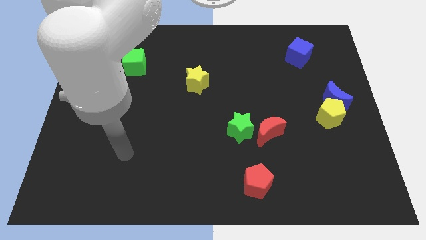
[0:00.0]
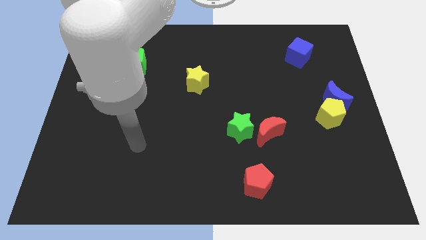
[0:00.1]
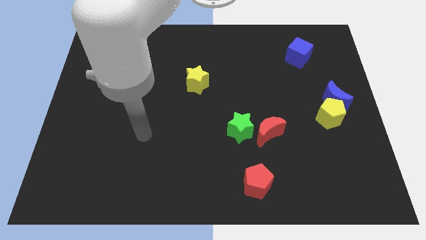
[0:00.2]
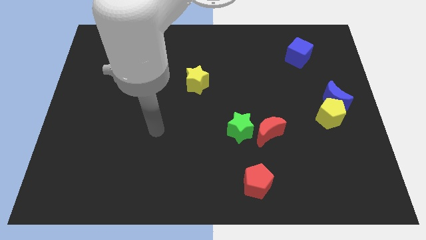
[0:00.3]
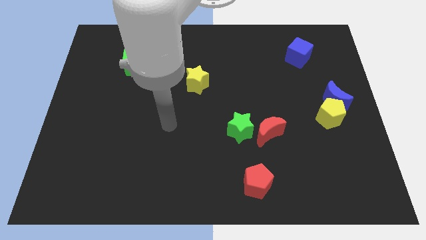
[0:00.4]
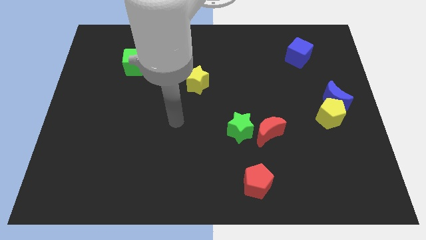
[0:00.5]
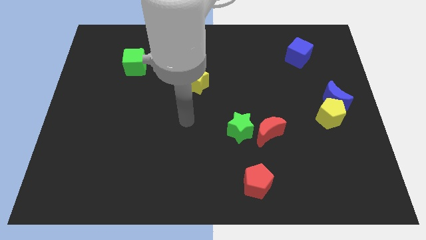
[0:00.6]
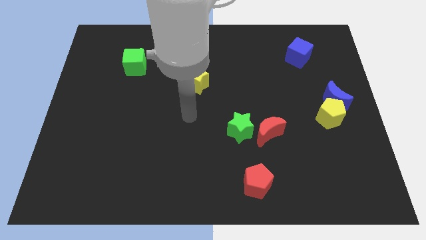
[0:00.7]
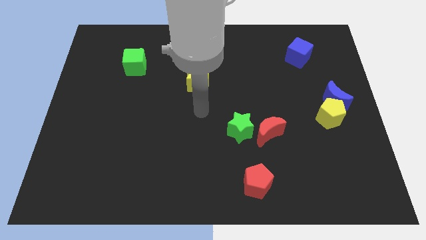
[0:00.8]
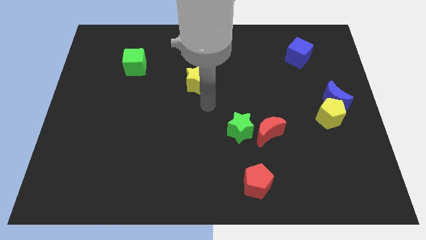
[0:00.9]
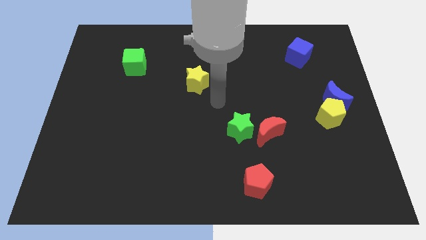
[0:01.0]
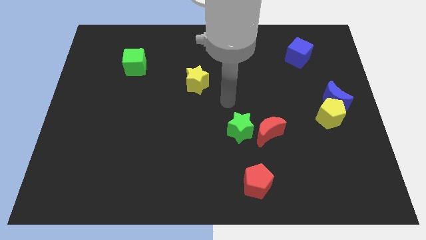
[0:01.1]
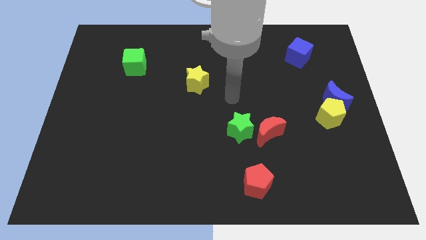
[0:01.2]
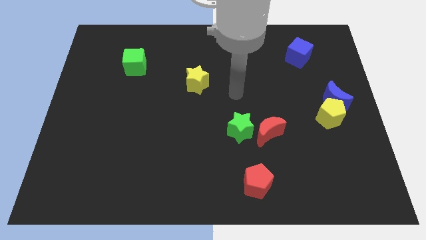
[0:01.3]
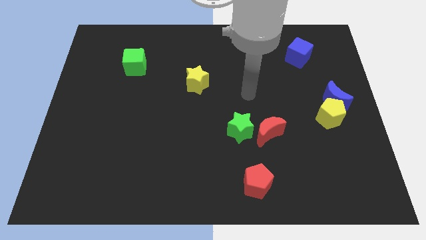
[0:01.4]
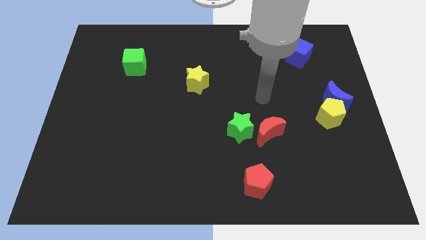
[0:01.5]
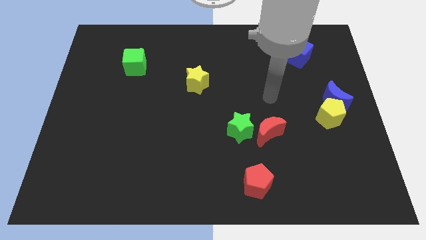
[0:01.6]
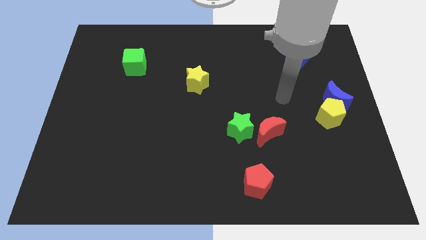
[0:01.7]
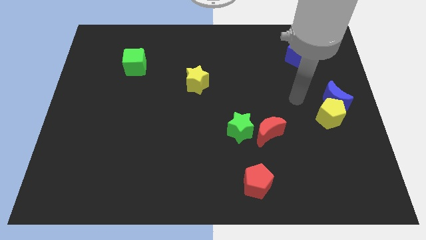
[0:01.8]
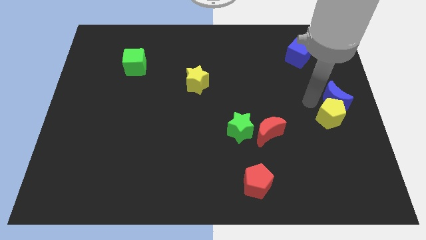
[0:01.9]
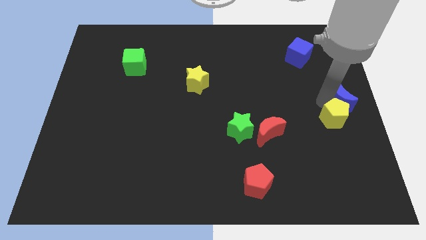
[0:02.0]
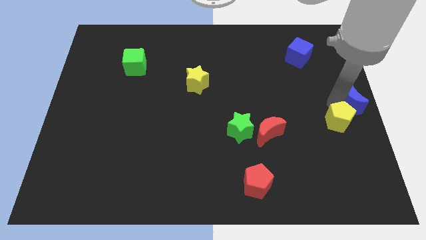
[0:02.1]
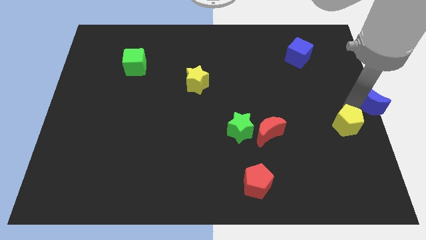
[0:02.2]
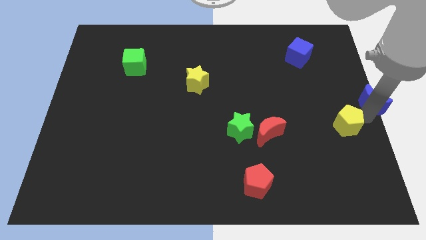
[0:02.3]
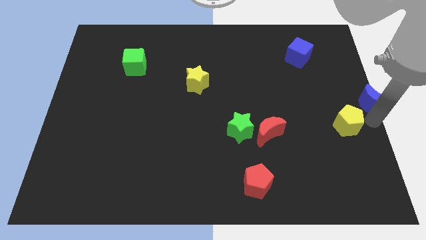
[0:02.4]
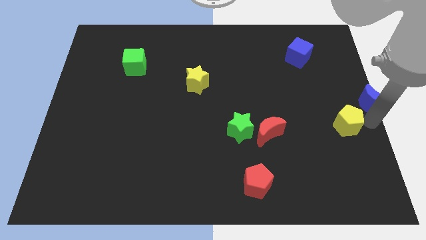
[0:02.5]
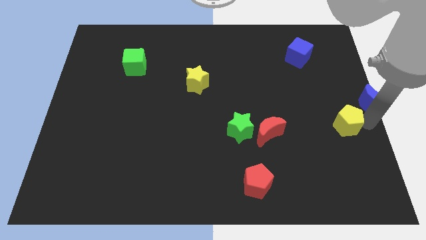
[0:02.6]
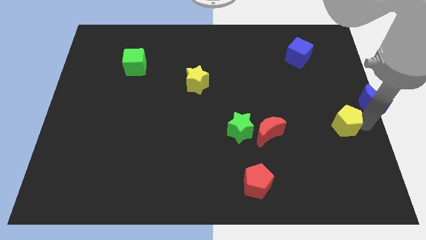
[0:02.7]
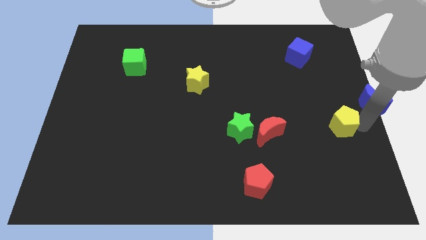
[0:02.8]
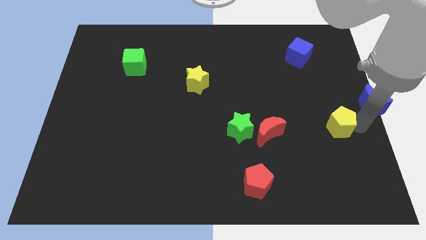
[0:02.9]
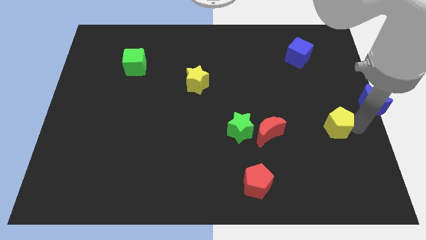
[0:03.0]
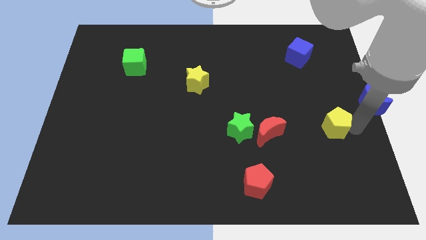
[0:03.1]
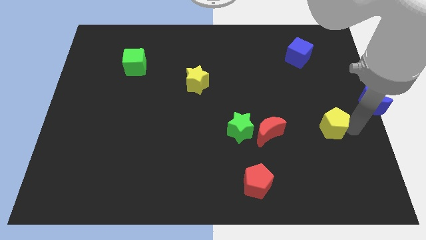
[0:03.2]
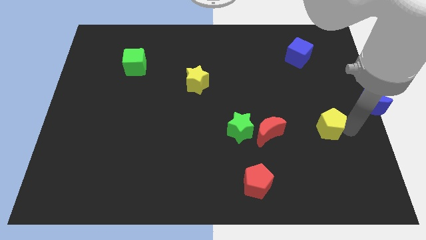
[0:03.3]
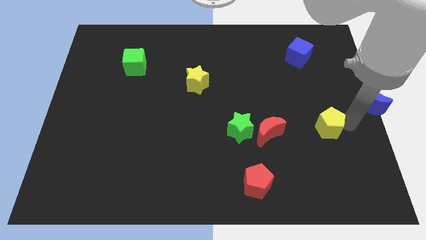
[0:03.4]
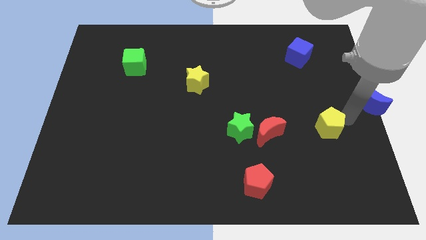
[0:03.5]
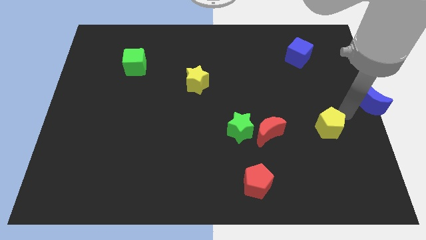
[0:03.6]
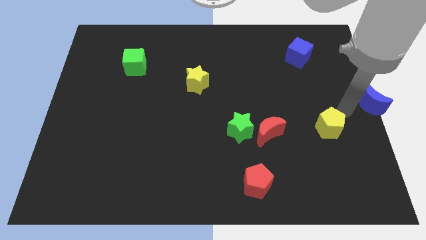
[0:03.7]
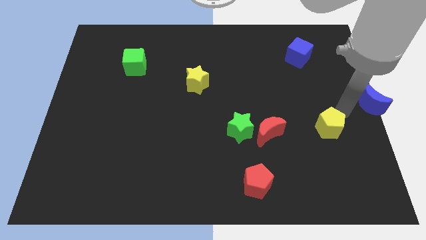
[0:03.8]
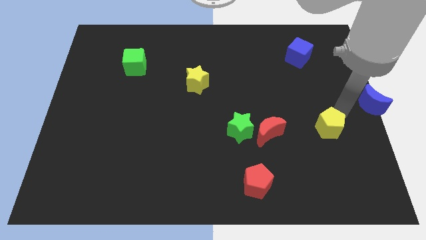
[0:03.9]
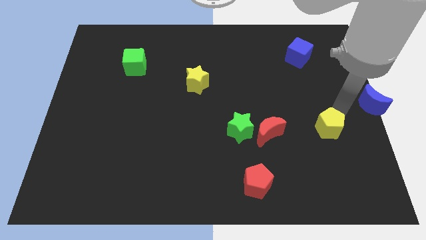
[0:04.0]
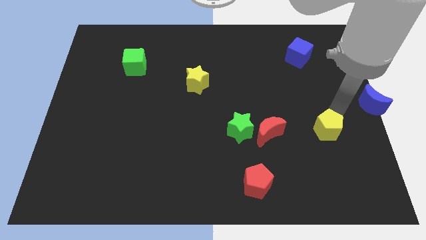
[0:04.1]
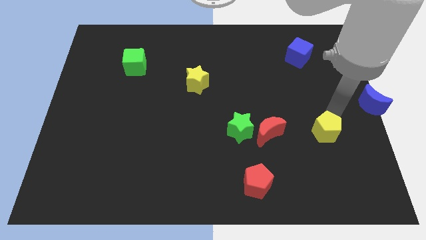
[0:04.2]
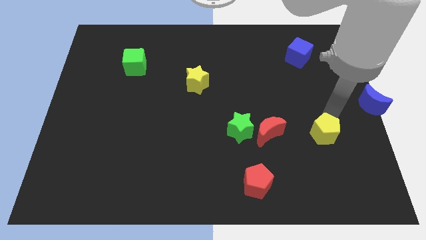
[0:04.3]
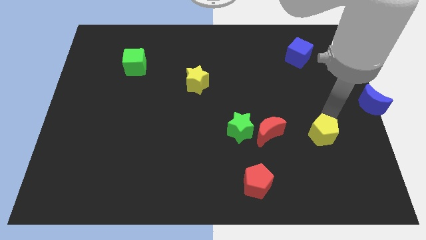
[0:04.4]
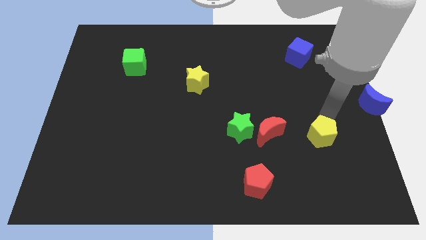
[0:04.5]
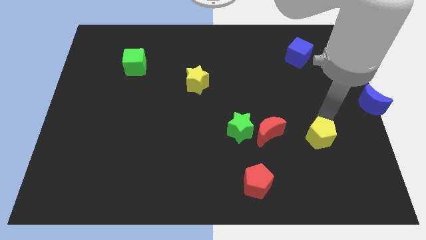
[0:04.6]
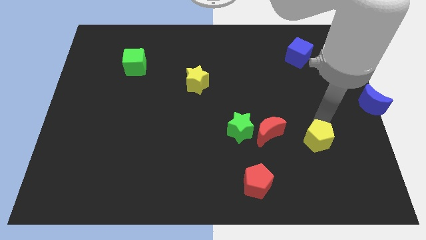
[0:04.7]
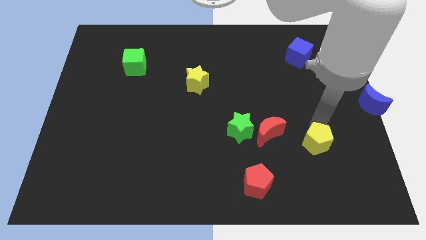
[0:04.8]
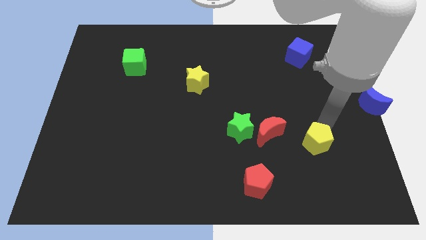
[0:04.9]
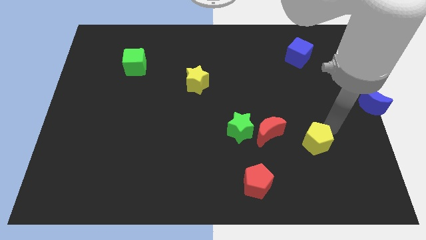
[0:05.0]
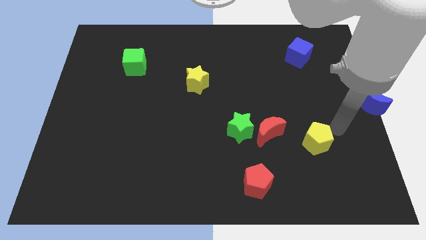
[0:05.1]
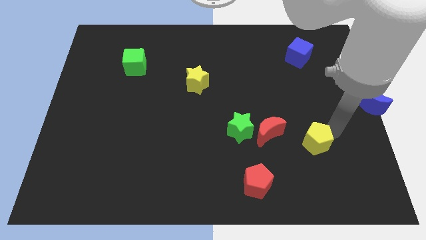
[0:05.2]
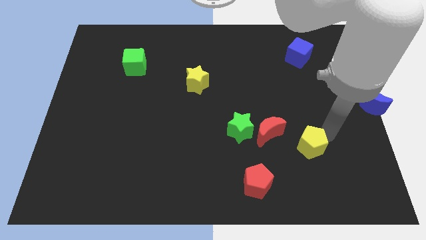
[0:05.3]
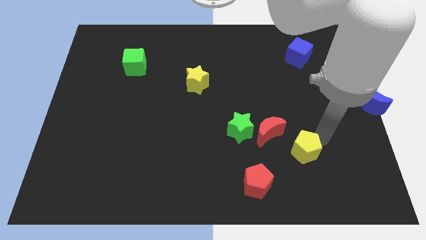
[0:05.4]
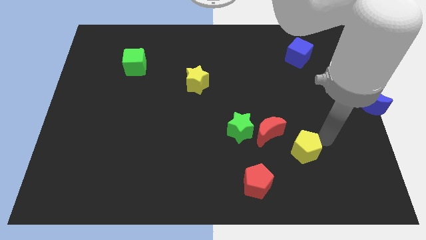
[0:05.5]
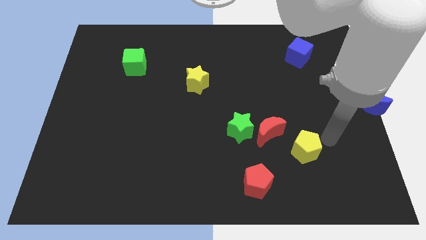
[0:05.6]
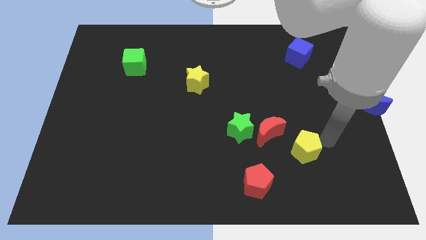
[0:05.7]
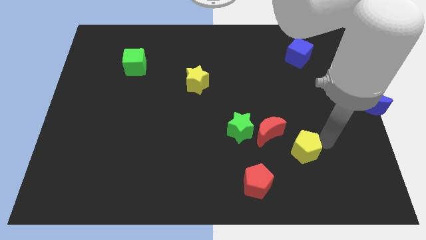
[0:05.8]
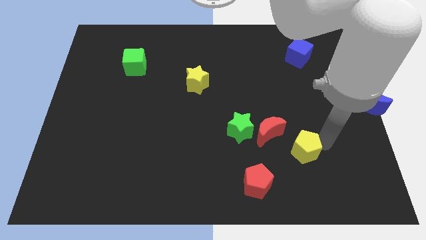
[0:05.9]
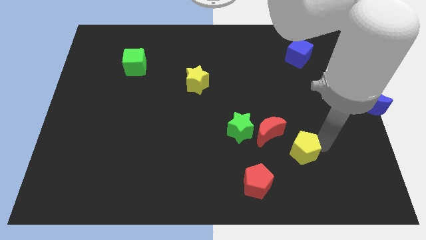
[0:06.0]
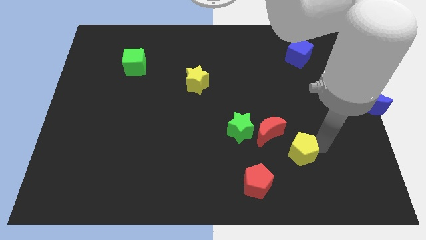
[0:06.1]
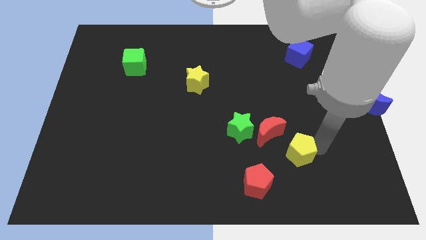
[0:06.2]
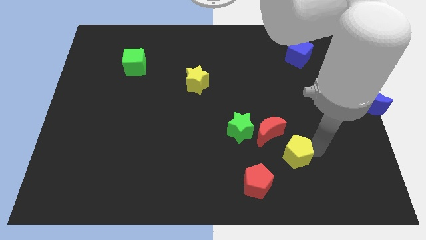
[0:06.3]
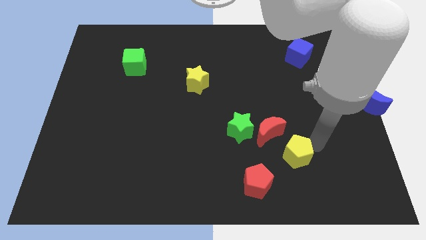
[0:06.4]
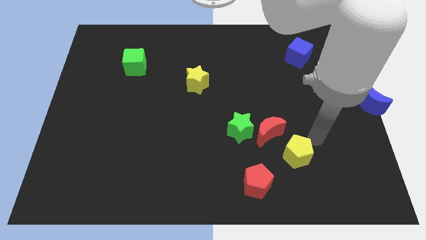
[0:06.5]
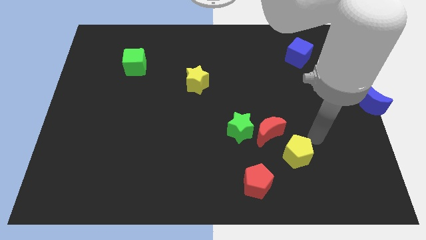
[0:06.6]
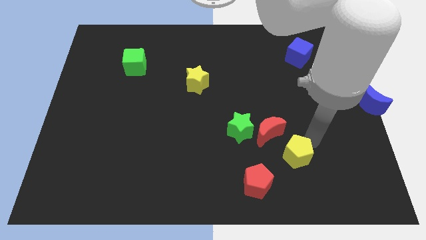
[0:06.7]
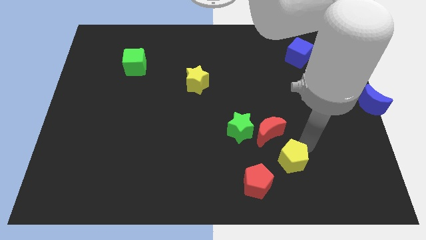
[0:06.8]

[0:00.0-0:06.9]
move the yellow pentagon below the red moon
